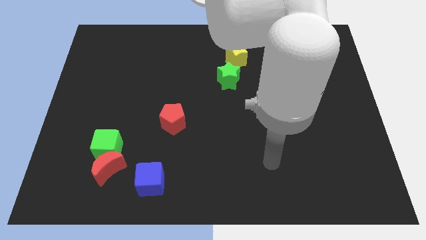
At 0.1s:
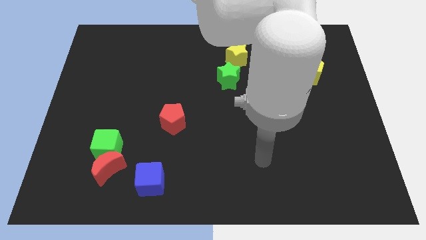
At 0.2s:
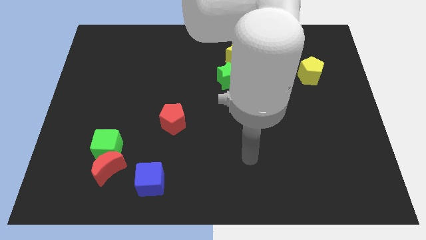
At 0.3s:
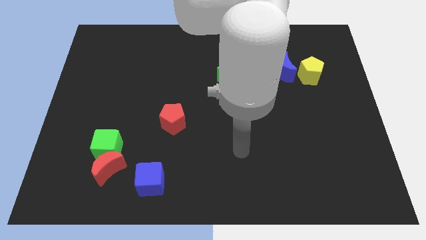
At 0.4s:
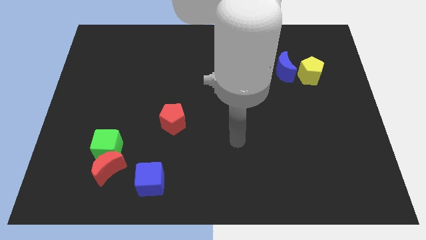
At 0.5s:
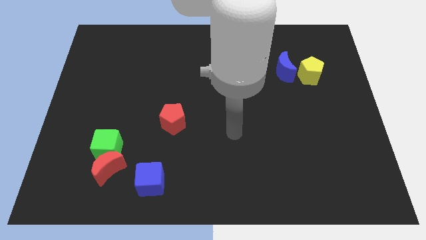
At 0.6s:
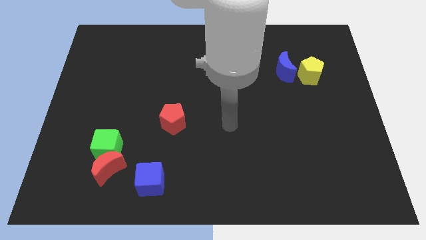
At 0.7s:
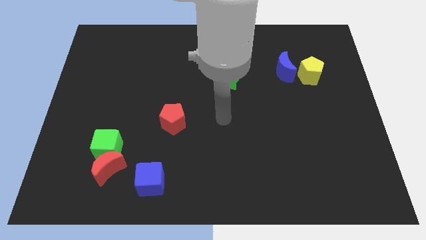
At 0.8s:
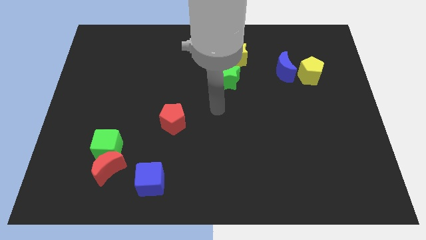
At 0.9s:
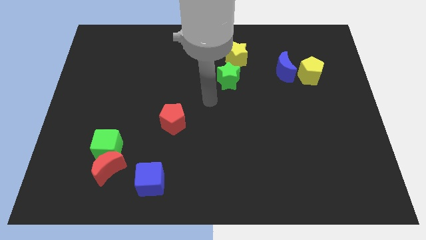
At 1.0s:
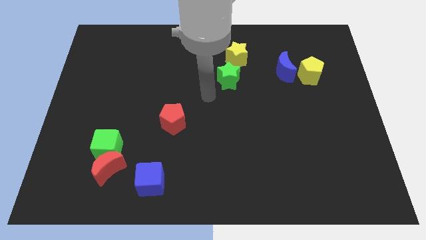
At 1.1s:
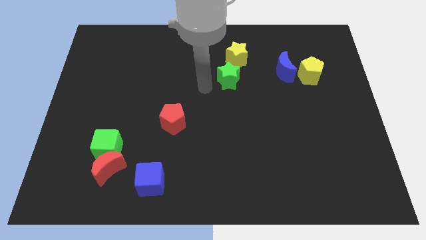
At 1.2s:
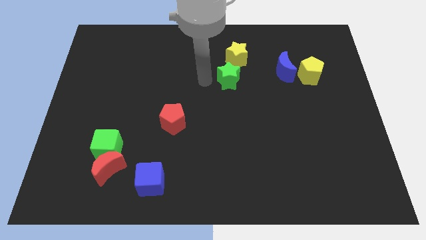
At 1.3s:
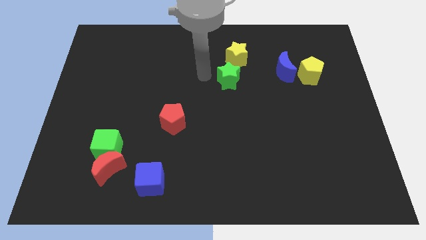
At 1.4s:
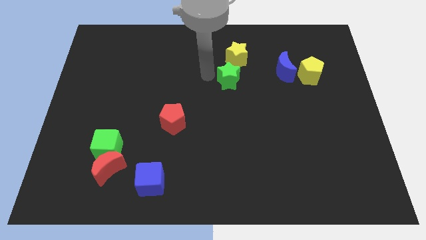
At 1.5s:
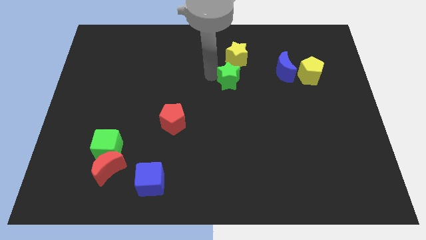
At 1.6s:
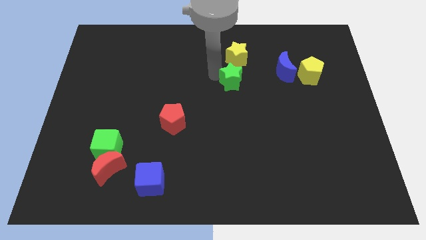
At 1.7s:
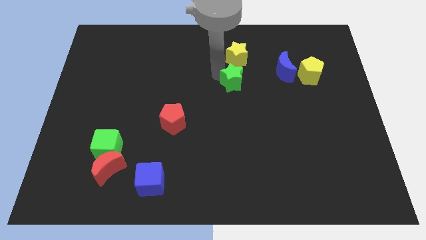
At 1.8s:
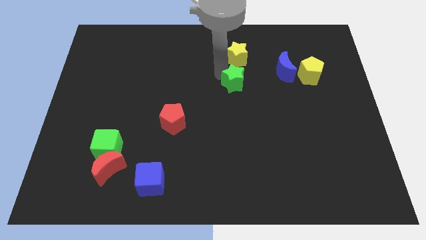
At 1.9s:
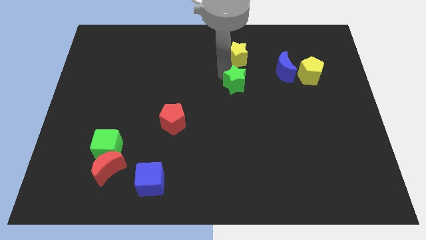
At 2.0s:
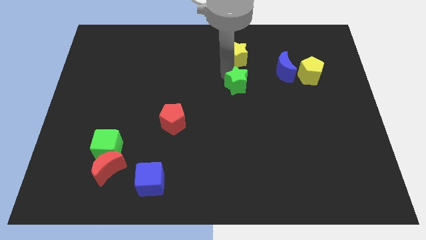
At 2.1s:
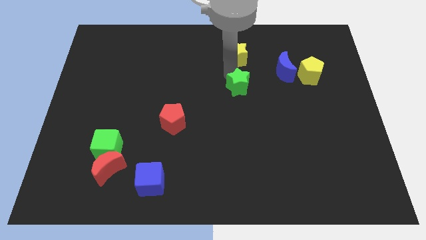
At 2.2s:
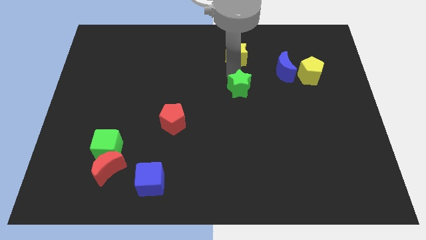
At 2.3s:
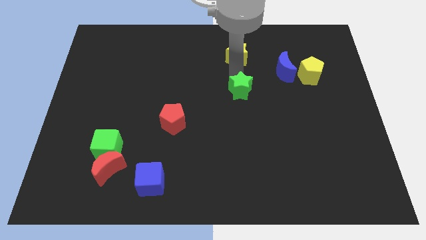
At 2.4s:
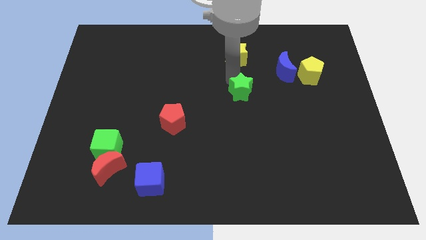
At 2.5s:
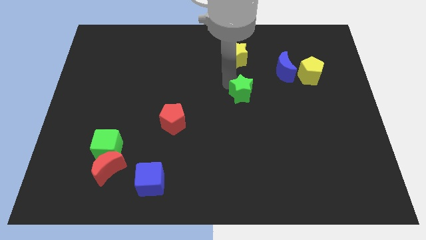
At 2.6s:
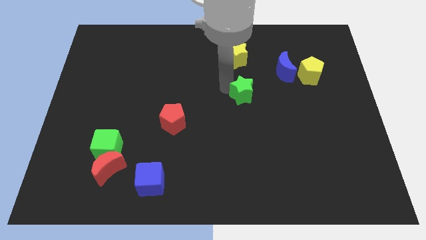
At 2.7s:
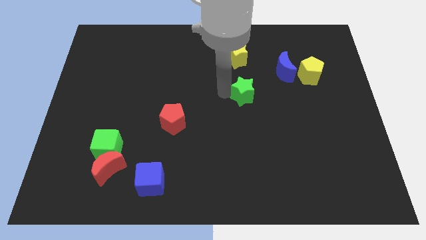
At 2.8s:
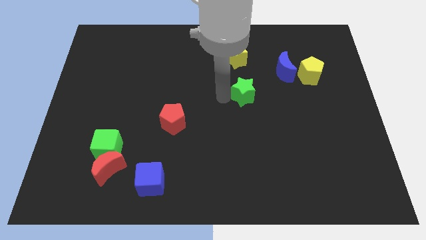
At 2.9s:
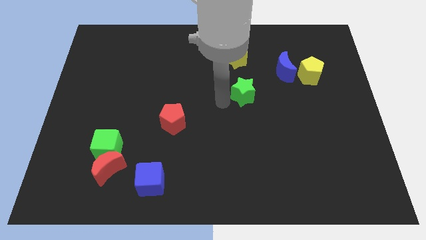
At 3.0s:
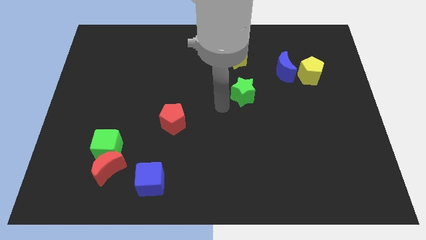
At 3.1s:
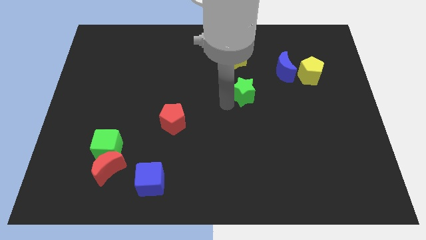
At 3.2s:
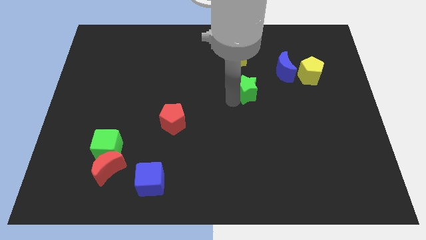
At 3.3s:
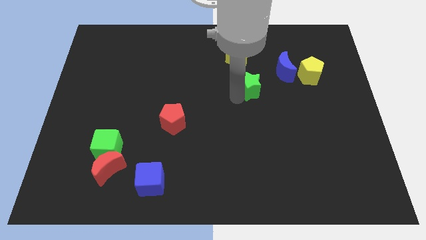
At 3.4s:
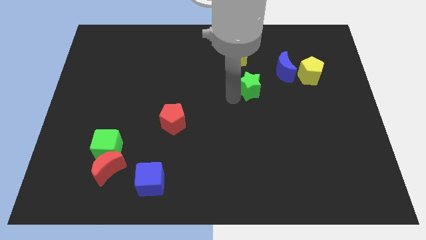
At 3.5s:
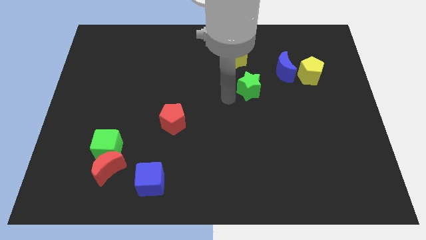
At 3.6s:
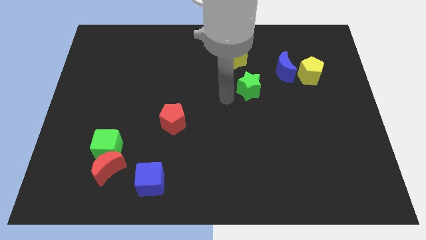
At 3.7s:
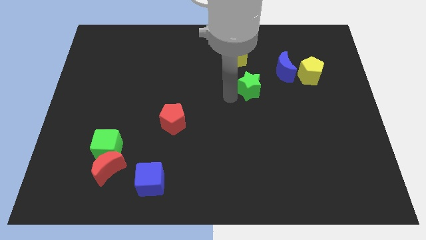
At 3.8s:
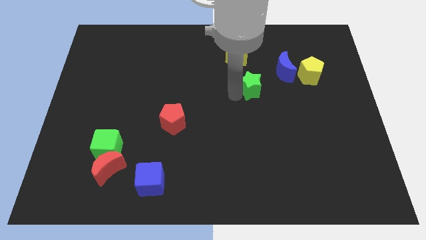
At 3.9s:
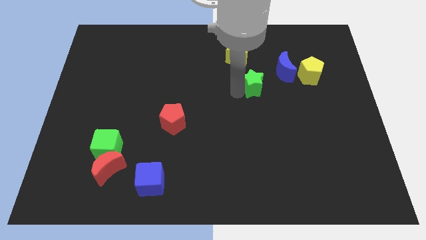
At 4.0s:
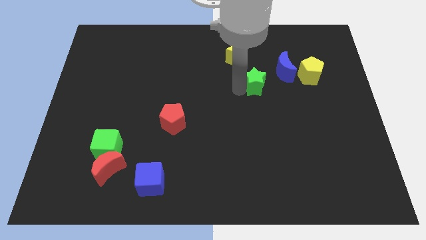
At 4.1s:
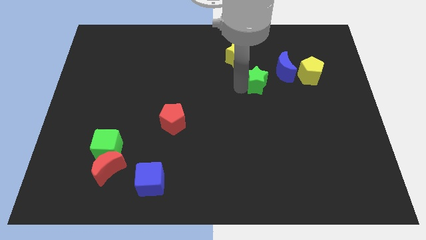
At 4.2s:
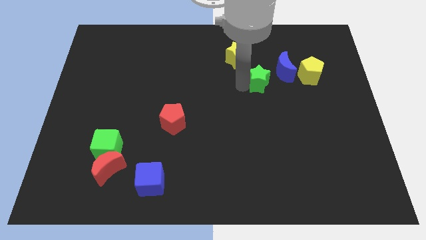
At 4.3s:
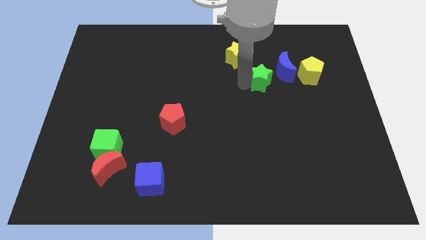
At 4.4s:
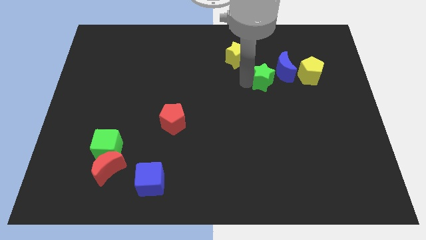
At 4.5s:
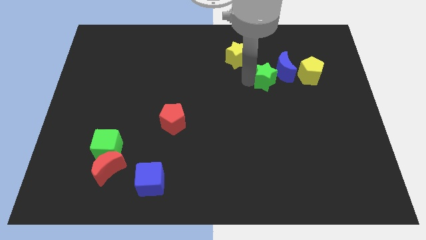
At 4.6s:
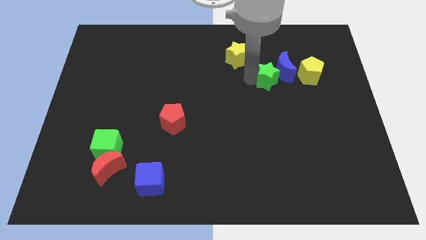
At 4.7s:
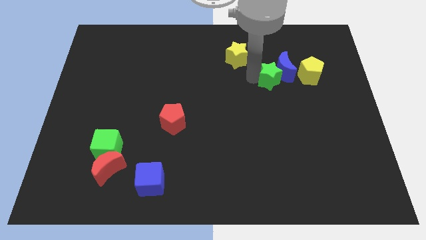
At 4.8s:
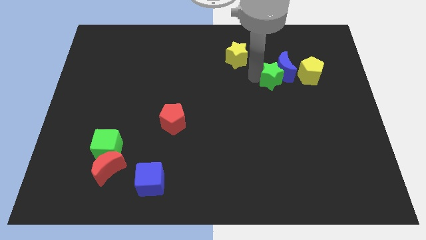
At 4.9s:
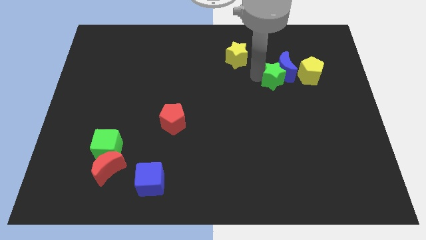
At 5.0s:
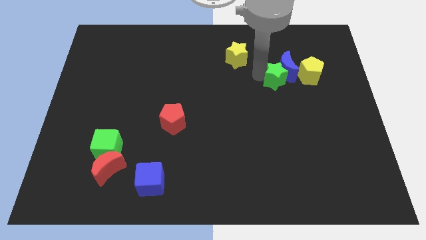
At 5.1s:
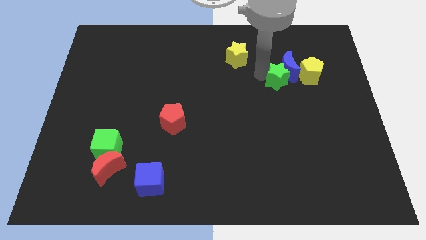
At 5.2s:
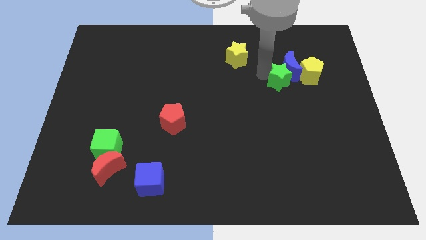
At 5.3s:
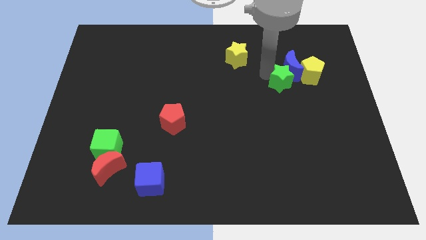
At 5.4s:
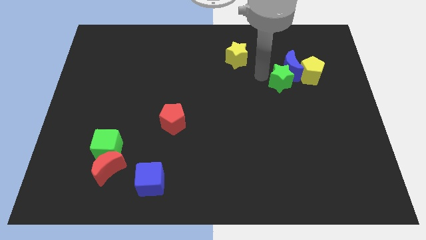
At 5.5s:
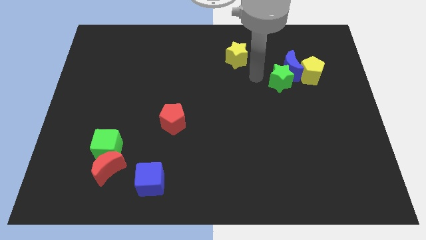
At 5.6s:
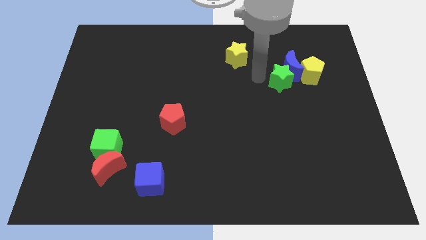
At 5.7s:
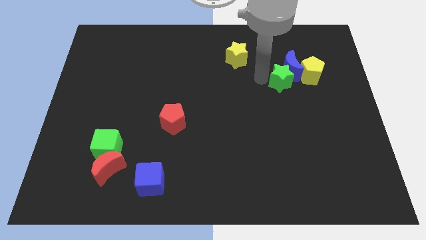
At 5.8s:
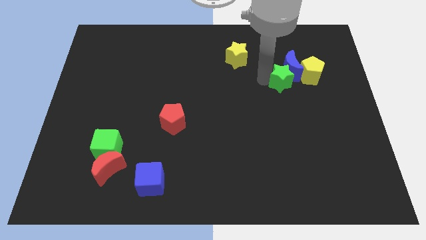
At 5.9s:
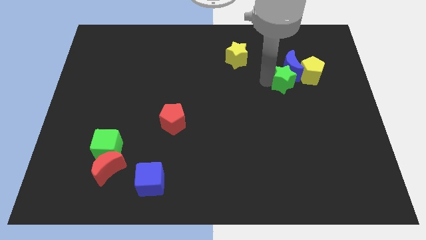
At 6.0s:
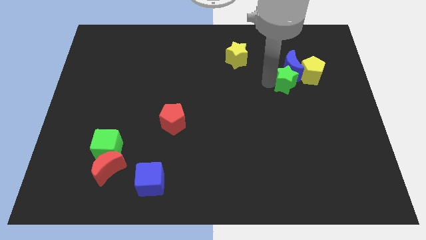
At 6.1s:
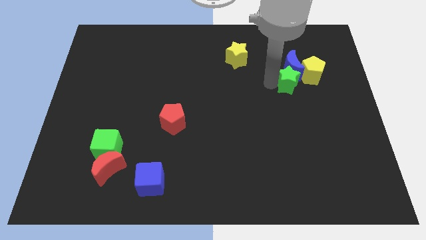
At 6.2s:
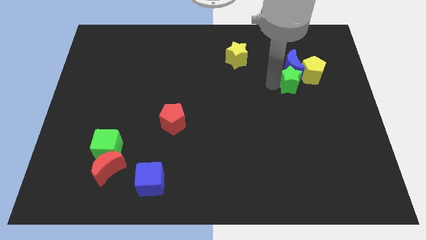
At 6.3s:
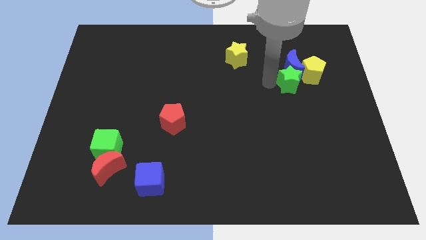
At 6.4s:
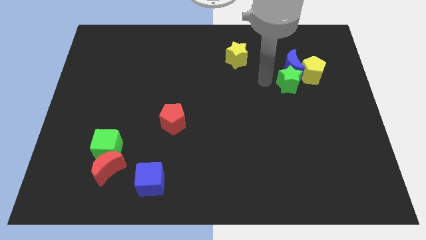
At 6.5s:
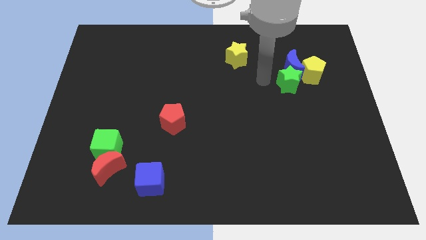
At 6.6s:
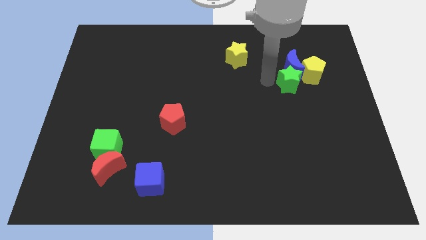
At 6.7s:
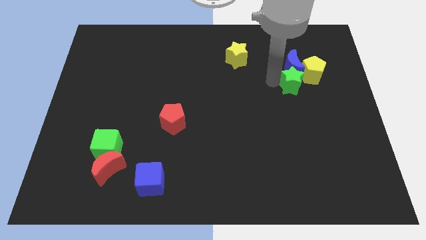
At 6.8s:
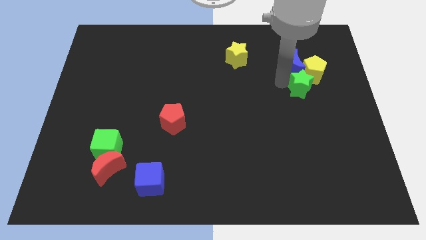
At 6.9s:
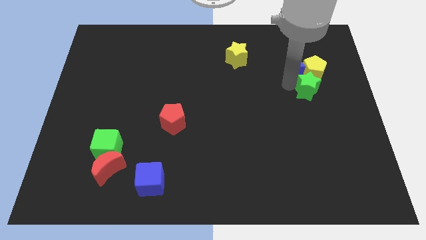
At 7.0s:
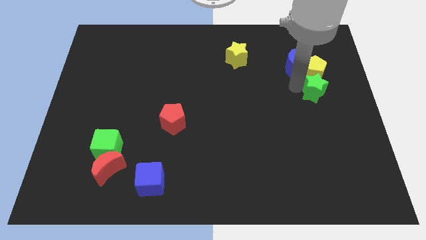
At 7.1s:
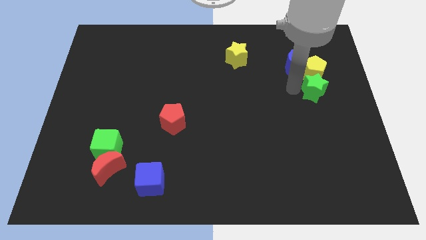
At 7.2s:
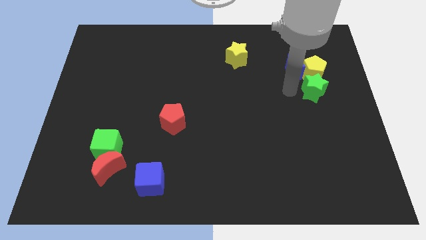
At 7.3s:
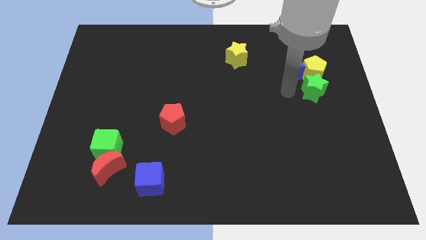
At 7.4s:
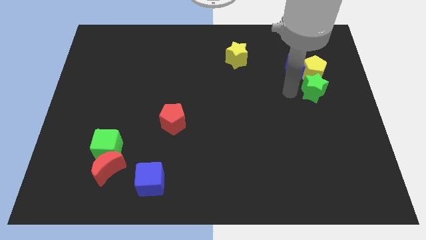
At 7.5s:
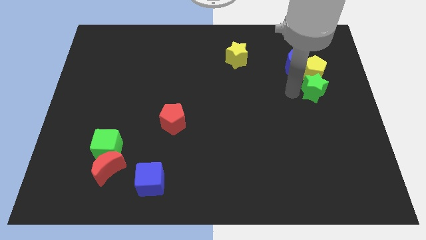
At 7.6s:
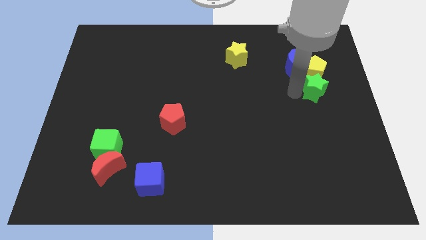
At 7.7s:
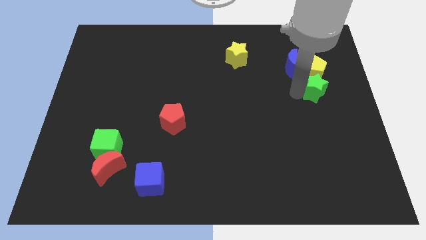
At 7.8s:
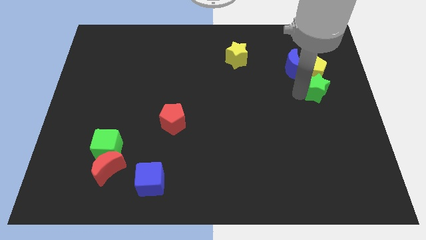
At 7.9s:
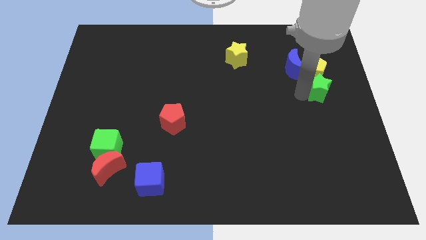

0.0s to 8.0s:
move the green star to the center right
